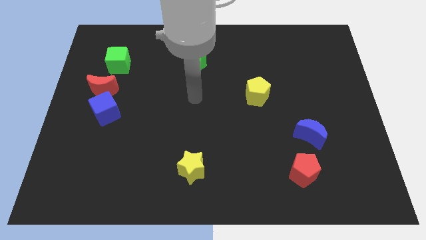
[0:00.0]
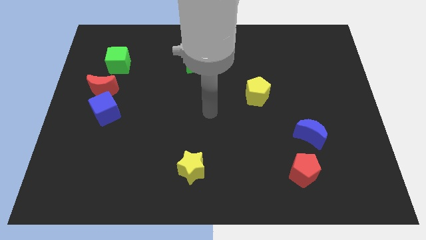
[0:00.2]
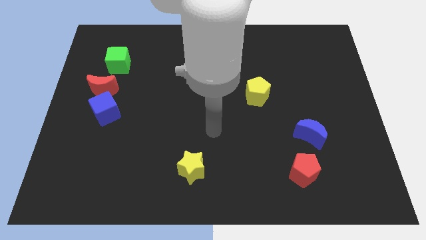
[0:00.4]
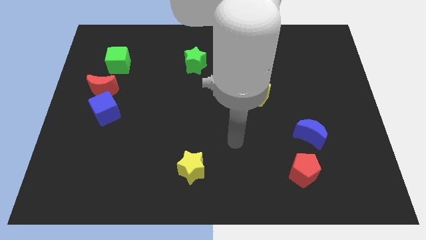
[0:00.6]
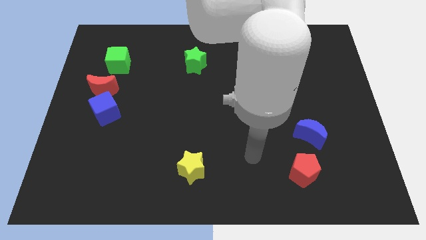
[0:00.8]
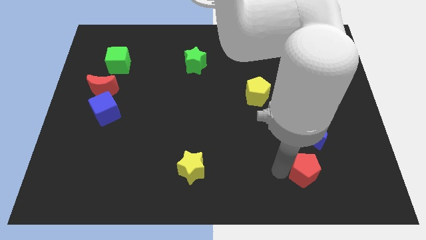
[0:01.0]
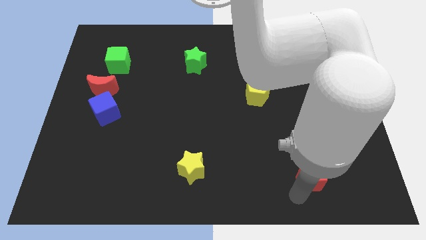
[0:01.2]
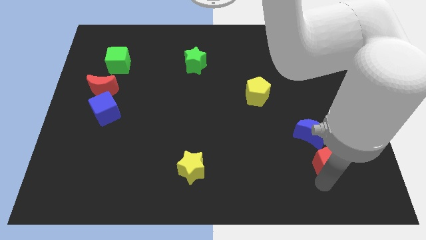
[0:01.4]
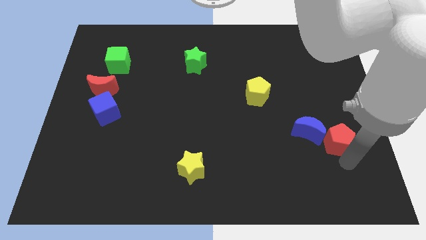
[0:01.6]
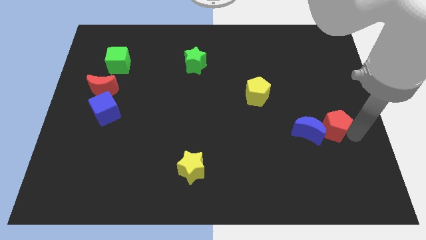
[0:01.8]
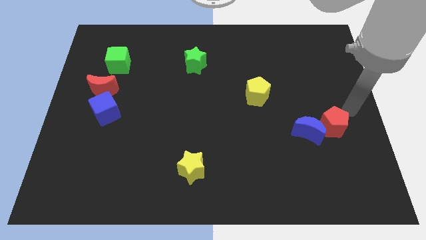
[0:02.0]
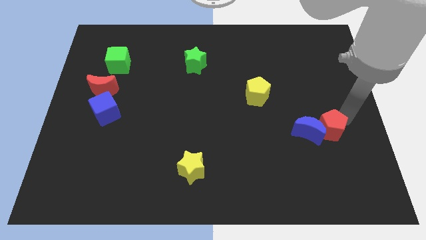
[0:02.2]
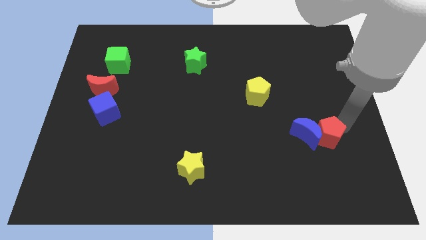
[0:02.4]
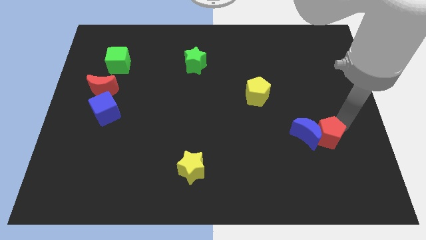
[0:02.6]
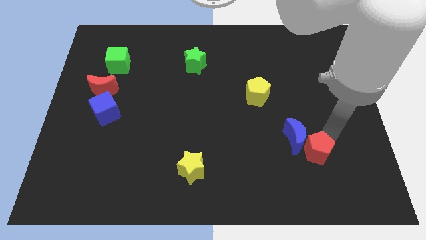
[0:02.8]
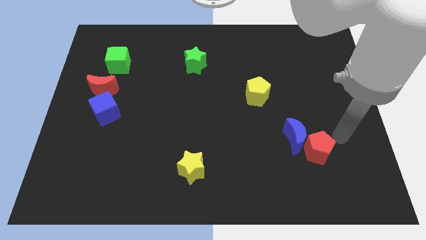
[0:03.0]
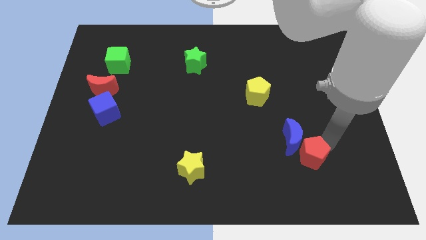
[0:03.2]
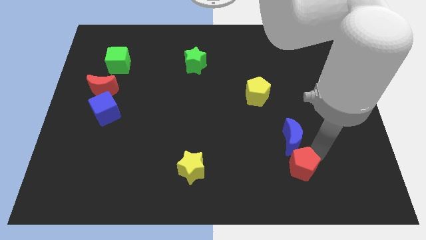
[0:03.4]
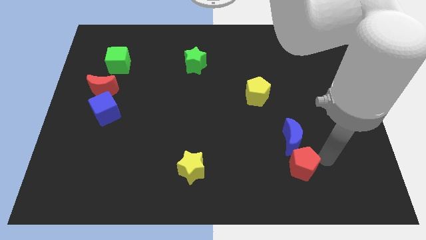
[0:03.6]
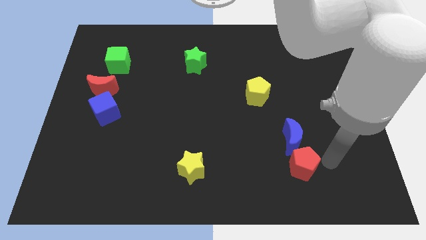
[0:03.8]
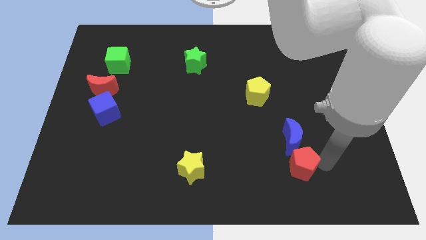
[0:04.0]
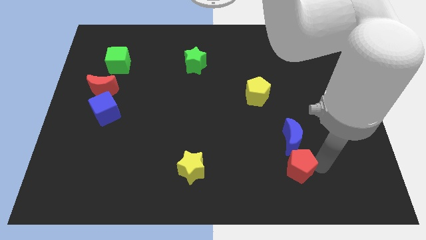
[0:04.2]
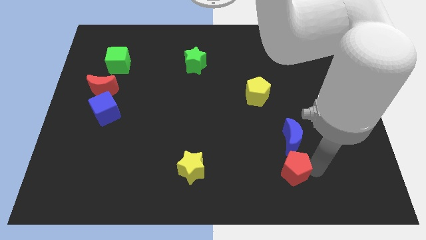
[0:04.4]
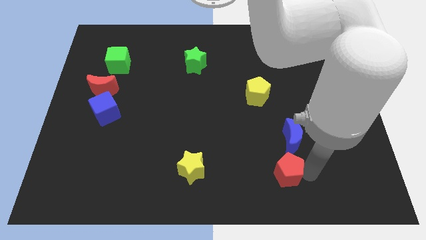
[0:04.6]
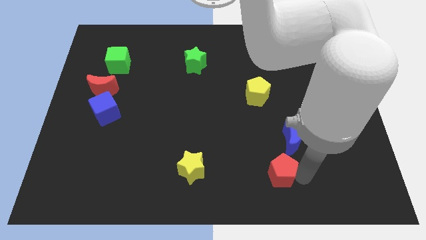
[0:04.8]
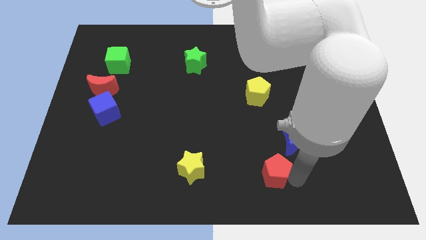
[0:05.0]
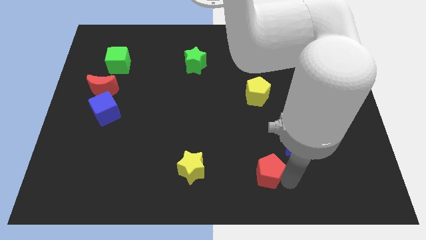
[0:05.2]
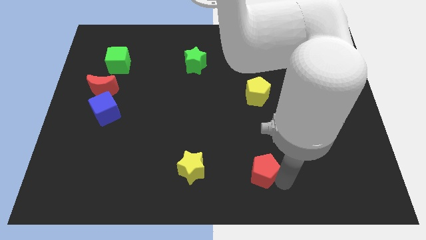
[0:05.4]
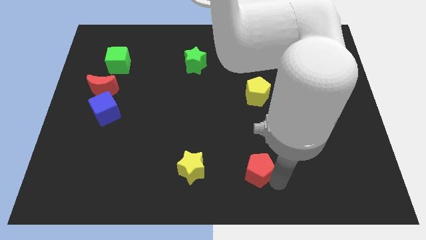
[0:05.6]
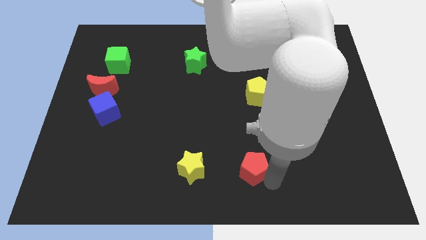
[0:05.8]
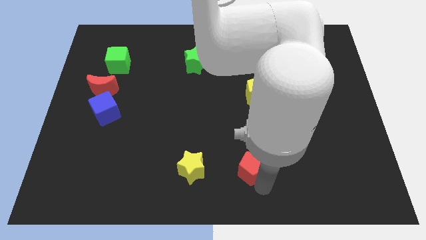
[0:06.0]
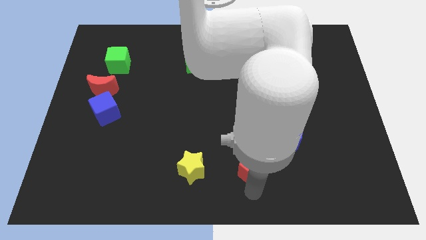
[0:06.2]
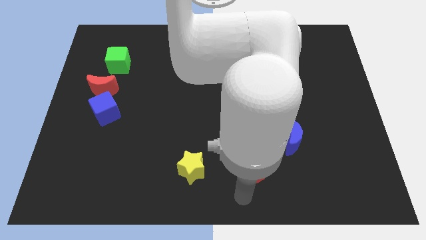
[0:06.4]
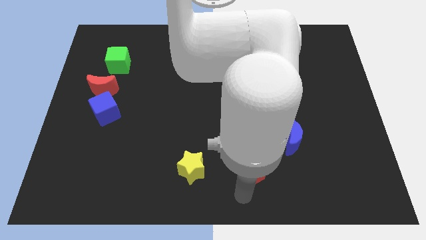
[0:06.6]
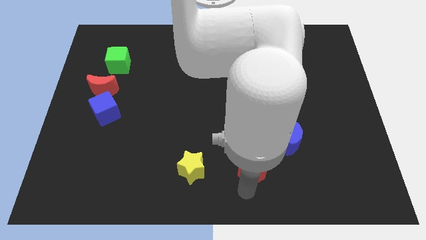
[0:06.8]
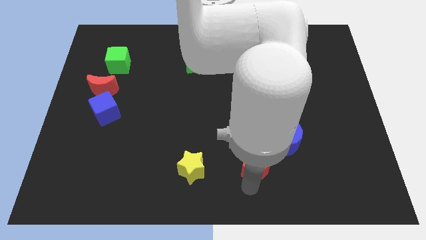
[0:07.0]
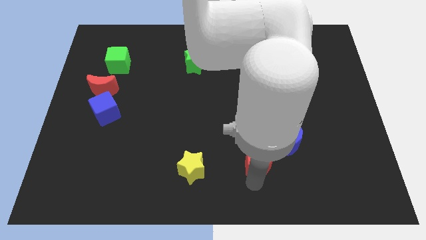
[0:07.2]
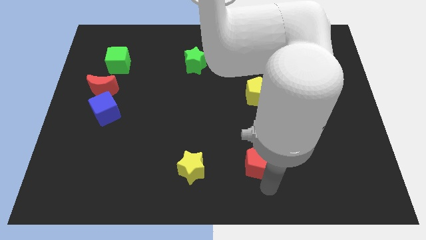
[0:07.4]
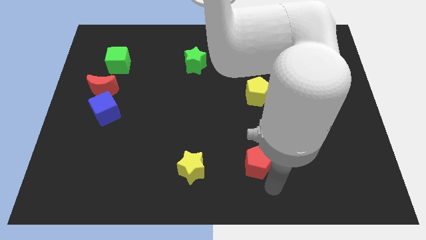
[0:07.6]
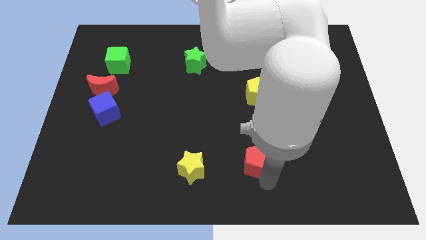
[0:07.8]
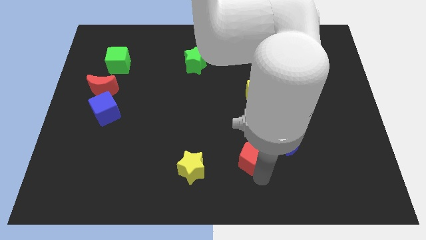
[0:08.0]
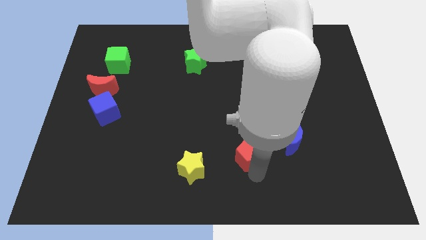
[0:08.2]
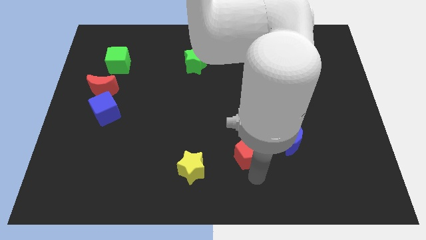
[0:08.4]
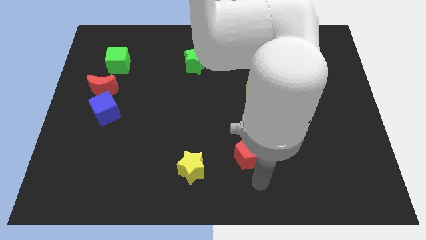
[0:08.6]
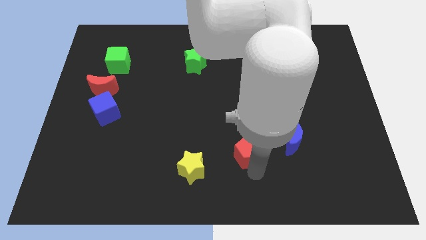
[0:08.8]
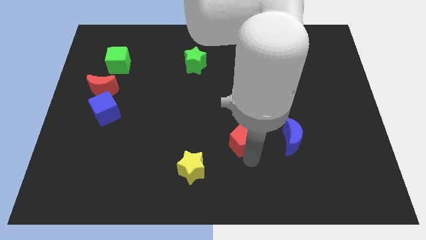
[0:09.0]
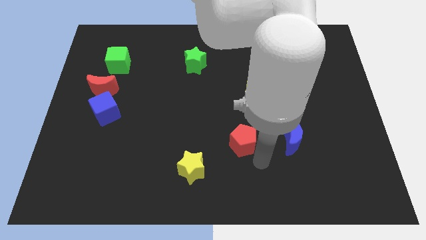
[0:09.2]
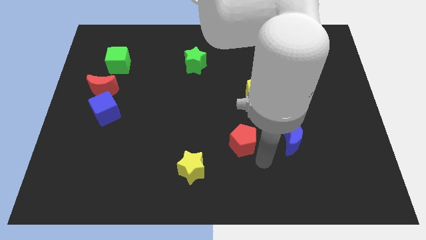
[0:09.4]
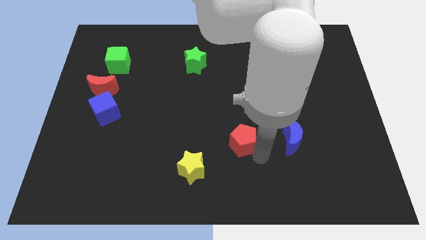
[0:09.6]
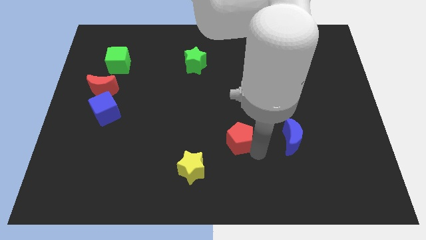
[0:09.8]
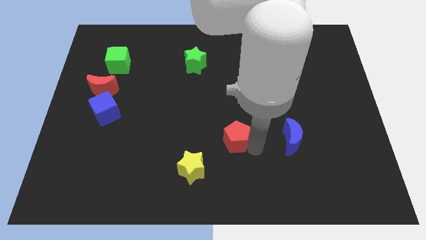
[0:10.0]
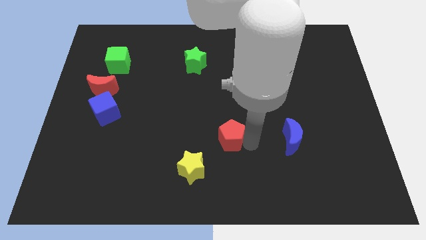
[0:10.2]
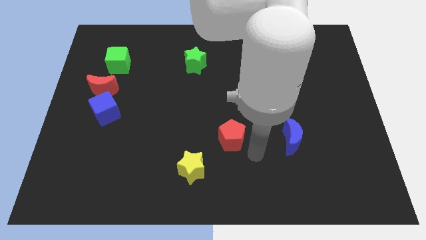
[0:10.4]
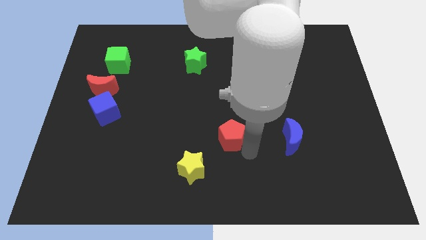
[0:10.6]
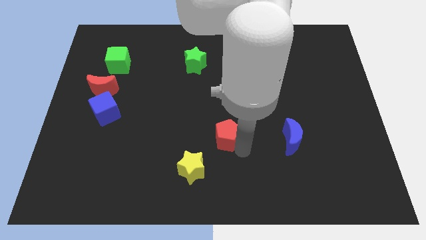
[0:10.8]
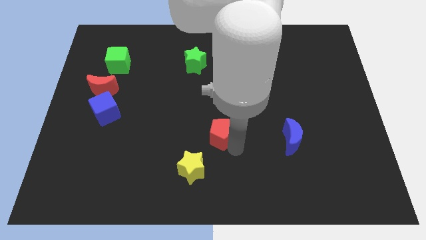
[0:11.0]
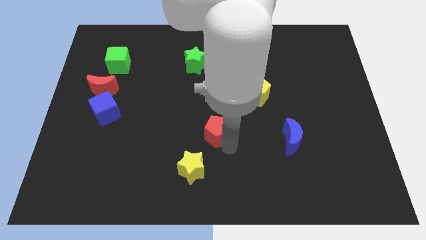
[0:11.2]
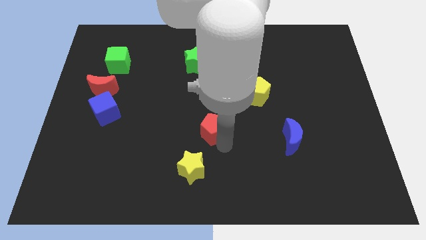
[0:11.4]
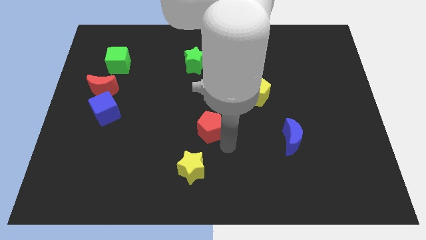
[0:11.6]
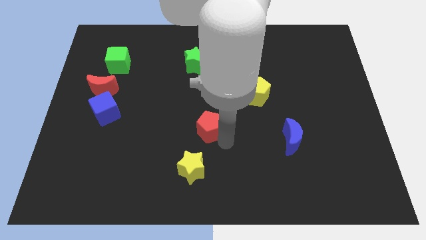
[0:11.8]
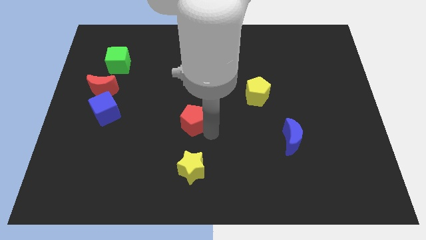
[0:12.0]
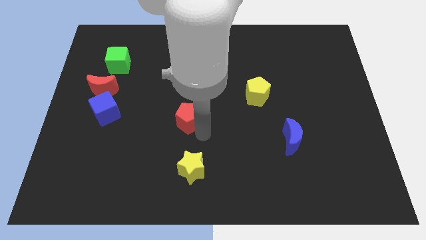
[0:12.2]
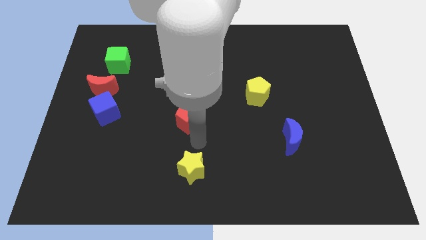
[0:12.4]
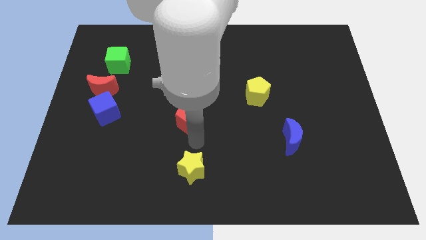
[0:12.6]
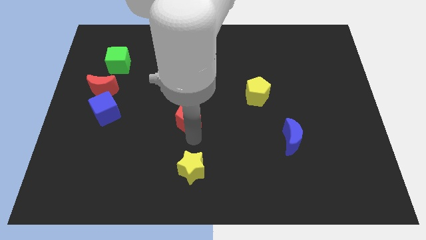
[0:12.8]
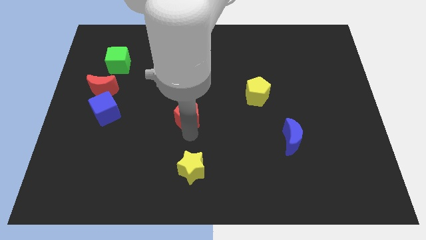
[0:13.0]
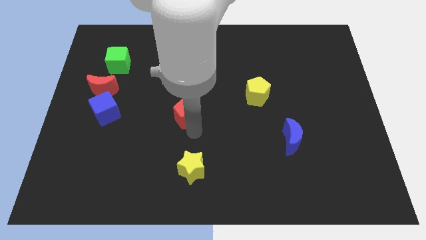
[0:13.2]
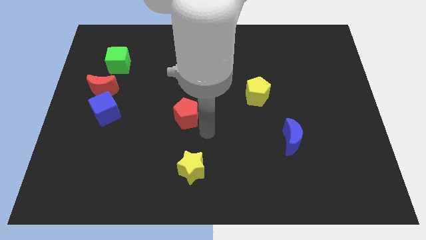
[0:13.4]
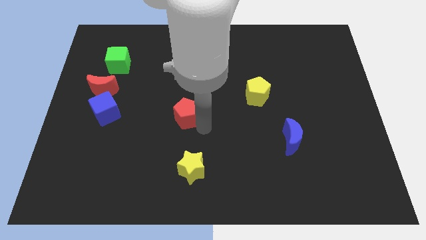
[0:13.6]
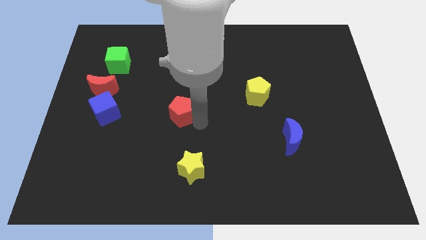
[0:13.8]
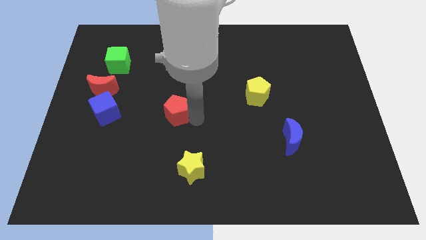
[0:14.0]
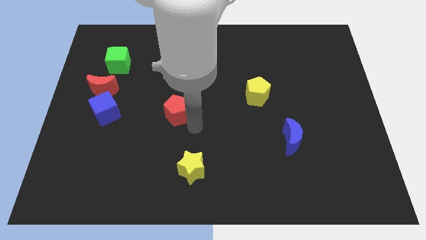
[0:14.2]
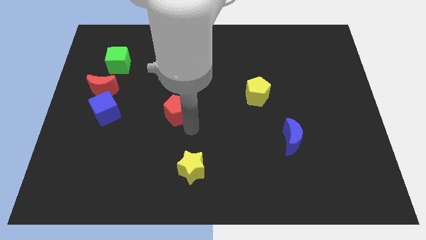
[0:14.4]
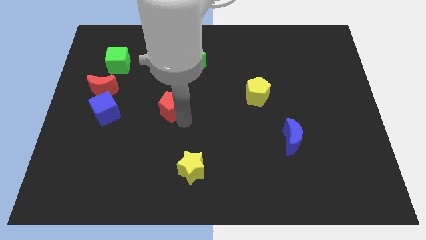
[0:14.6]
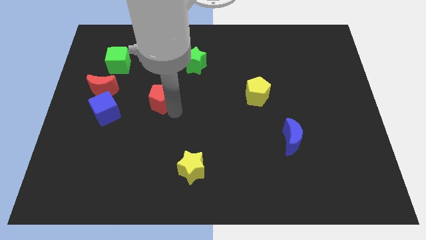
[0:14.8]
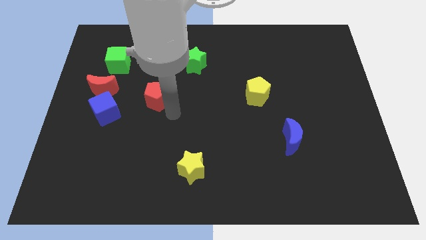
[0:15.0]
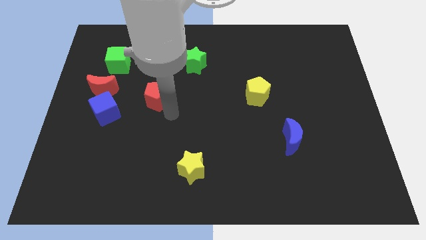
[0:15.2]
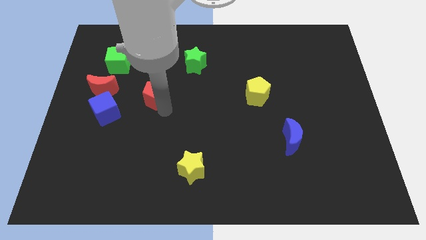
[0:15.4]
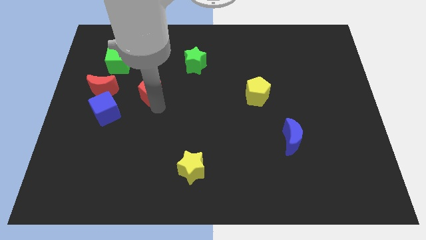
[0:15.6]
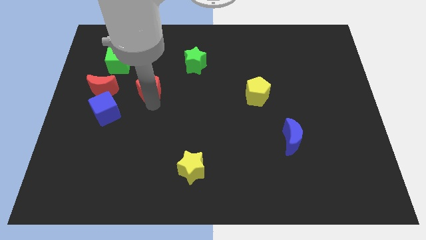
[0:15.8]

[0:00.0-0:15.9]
push the red pentagon diagonally down and to the right of the green cube
